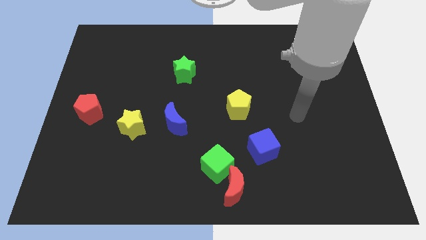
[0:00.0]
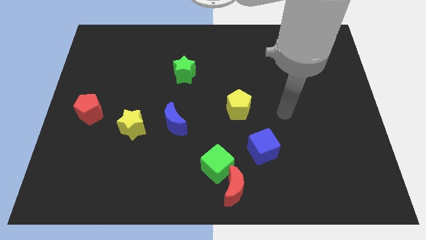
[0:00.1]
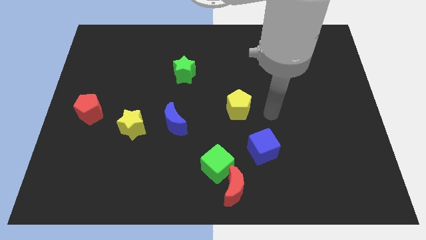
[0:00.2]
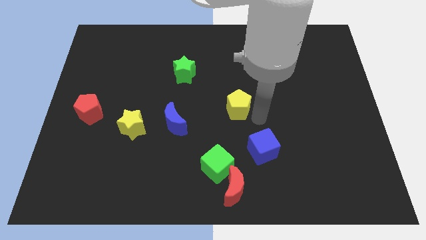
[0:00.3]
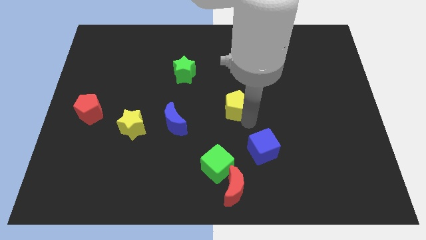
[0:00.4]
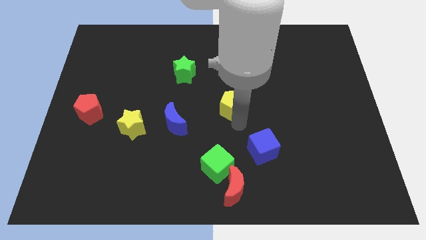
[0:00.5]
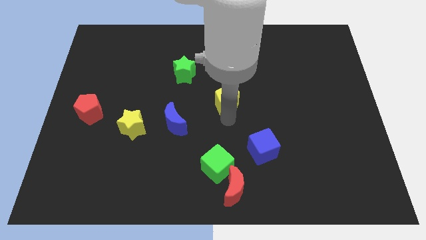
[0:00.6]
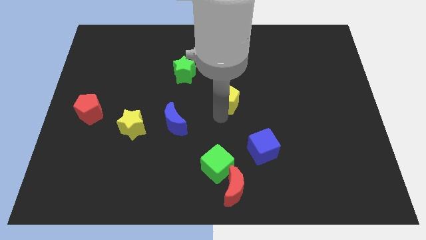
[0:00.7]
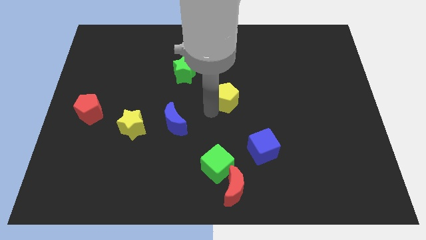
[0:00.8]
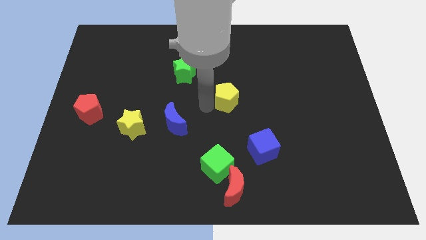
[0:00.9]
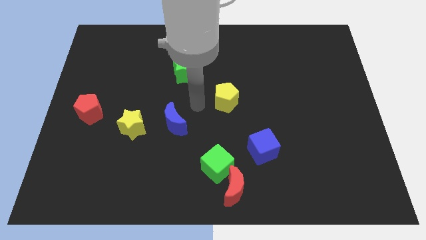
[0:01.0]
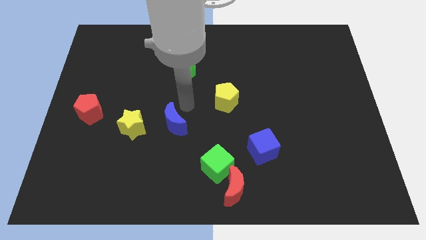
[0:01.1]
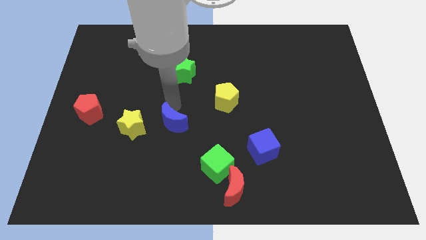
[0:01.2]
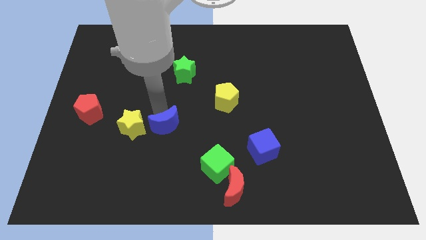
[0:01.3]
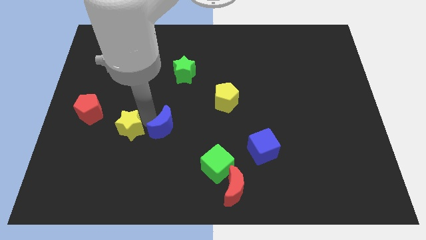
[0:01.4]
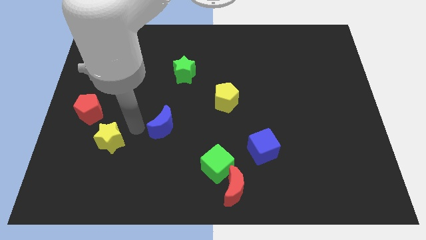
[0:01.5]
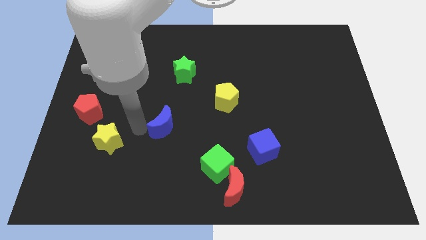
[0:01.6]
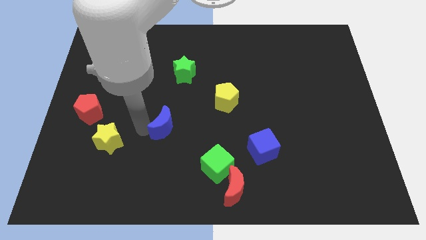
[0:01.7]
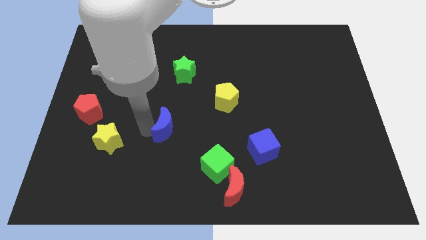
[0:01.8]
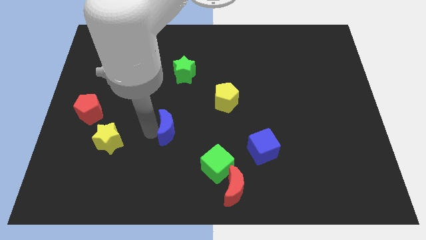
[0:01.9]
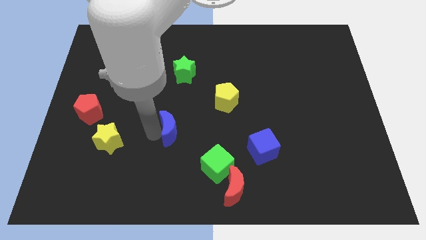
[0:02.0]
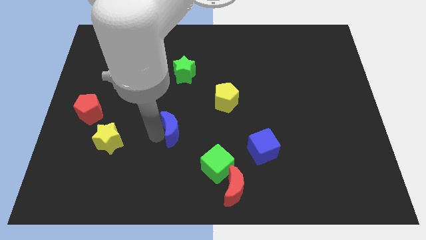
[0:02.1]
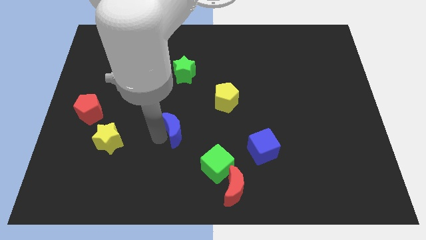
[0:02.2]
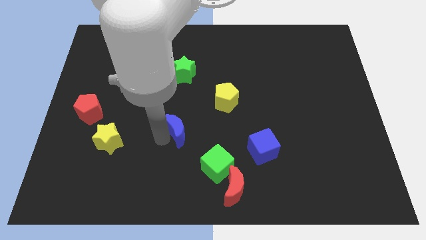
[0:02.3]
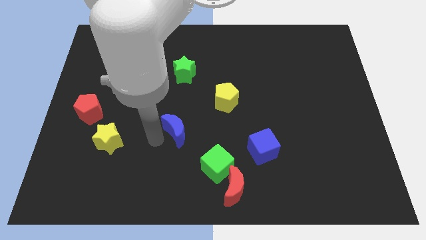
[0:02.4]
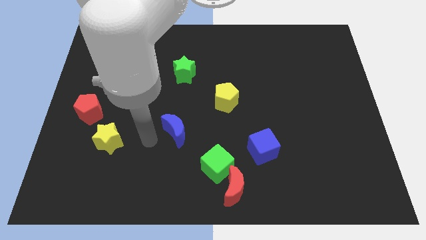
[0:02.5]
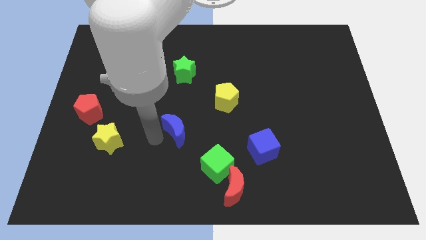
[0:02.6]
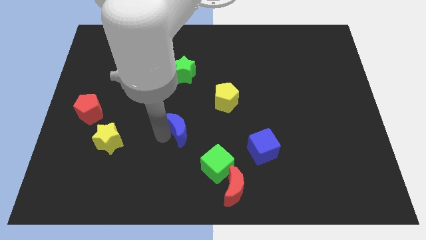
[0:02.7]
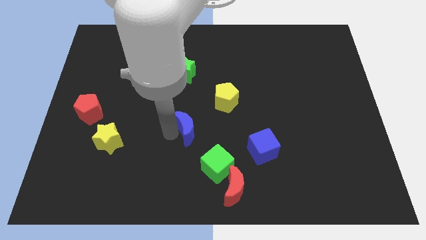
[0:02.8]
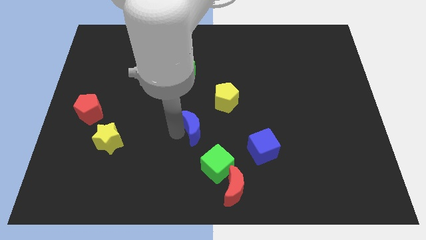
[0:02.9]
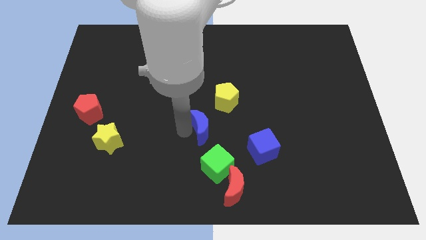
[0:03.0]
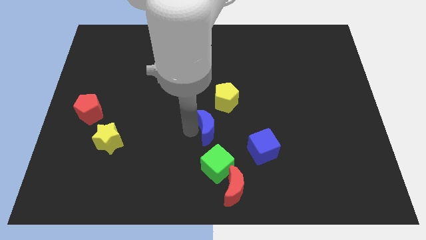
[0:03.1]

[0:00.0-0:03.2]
push the blue moon right a little

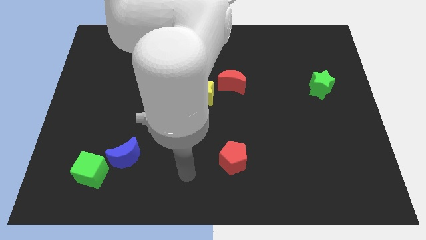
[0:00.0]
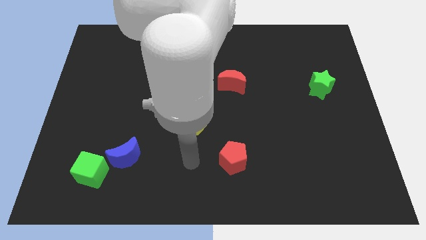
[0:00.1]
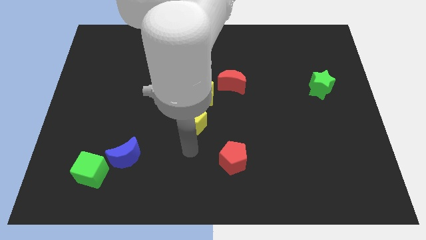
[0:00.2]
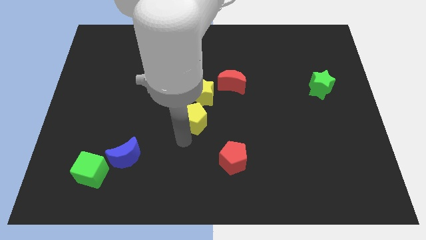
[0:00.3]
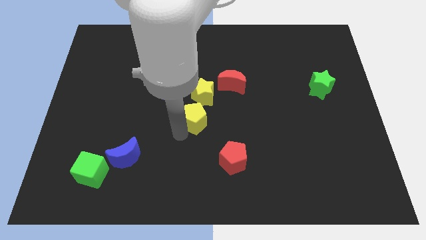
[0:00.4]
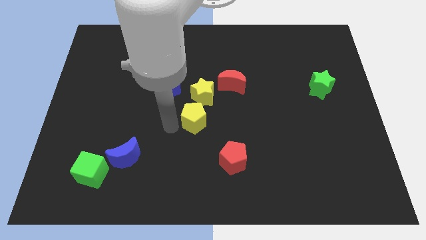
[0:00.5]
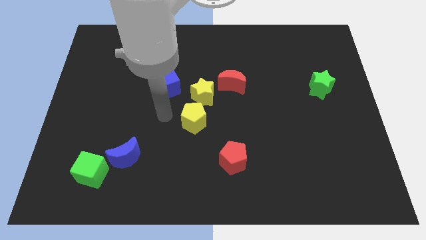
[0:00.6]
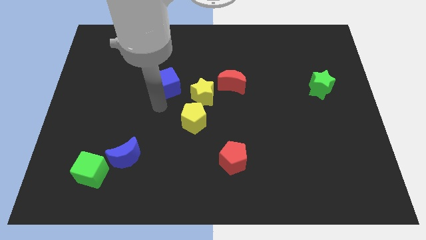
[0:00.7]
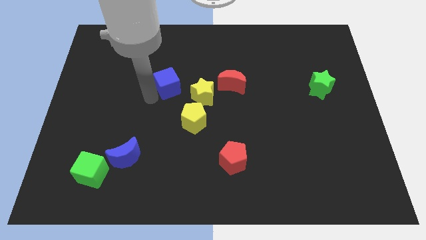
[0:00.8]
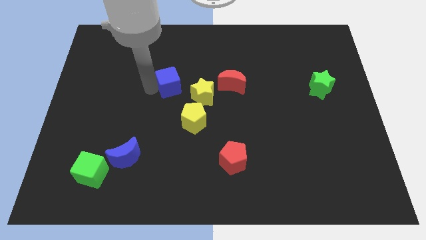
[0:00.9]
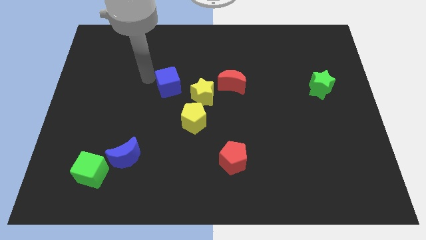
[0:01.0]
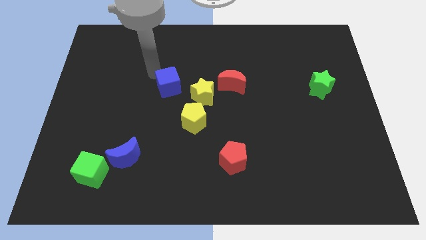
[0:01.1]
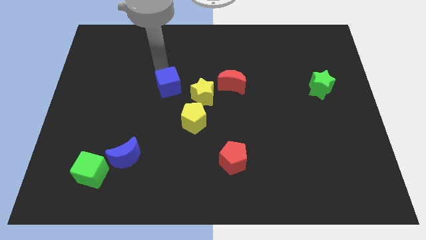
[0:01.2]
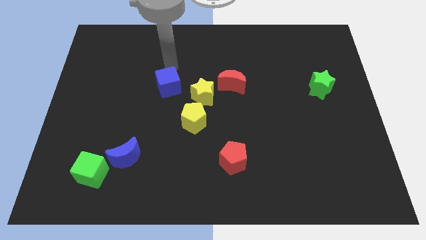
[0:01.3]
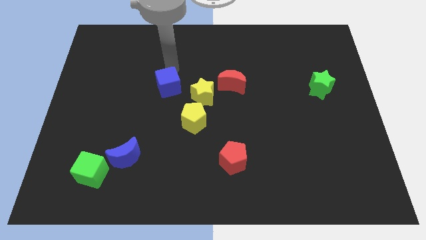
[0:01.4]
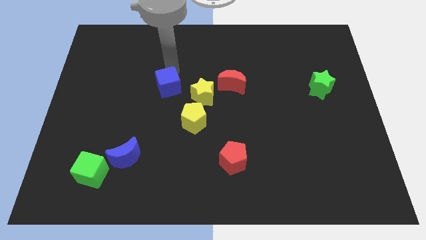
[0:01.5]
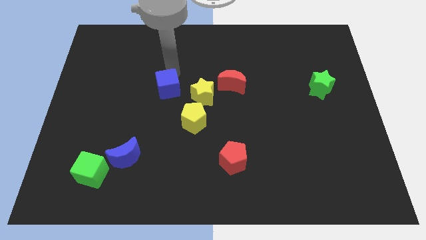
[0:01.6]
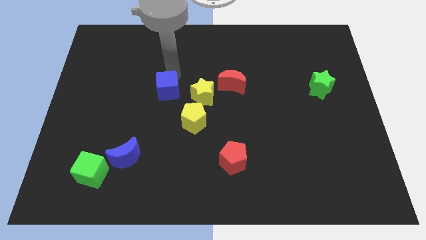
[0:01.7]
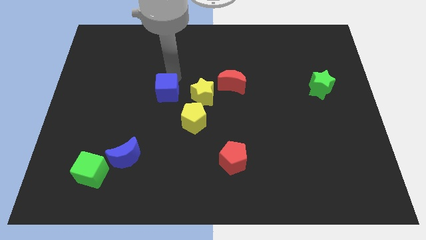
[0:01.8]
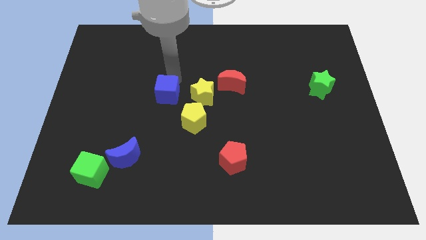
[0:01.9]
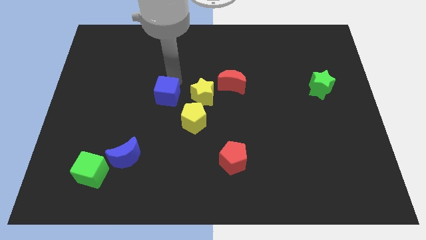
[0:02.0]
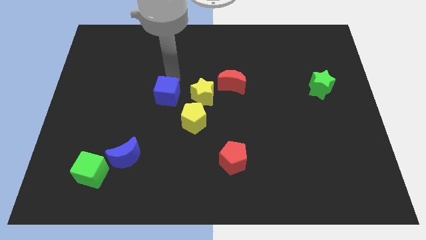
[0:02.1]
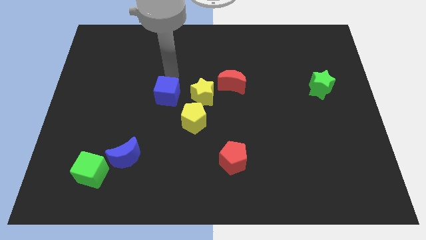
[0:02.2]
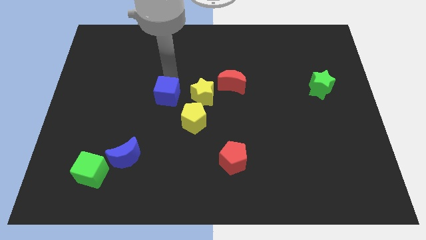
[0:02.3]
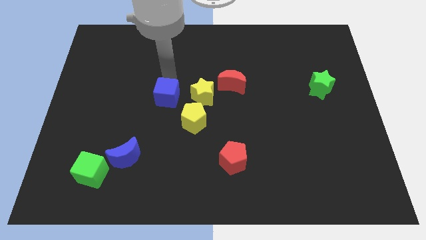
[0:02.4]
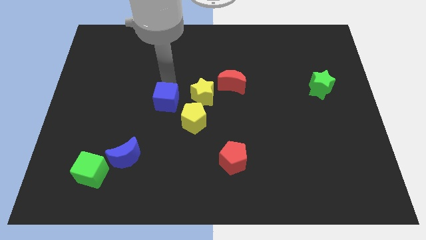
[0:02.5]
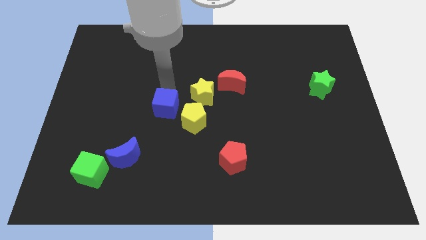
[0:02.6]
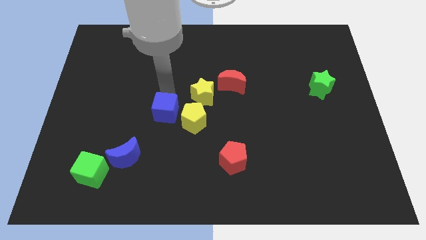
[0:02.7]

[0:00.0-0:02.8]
move the blue cube down a little bit

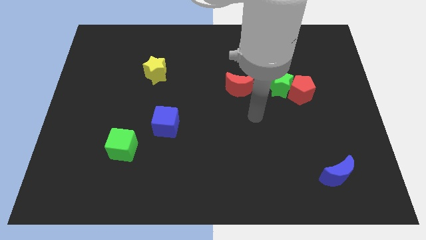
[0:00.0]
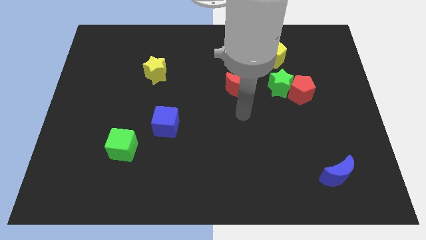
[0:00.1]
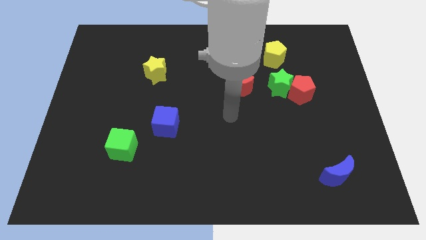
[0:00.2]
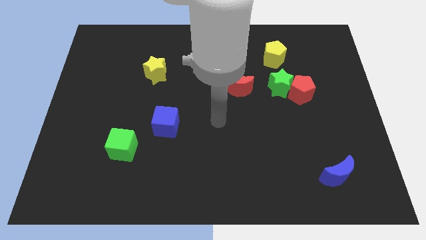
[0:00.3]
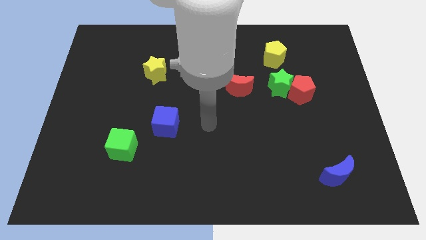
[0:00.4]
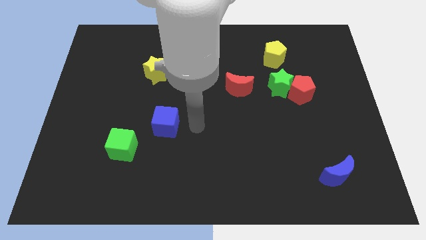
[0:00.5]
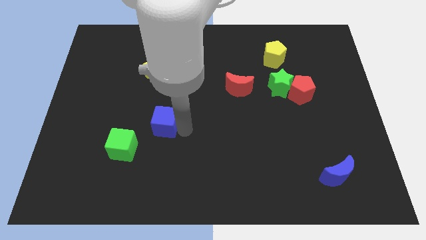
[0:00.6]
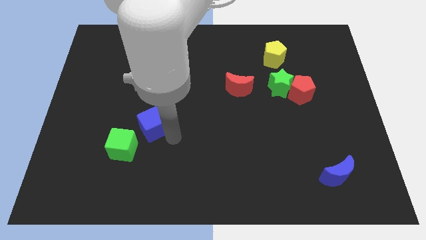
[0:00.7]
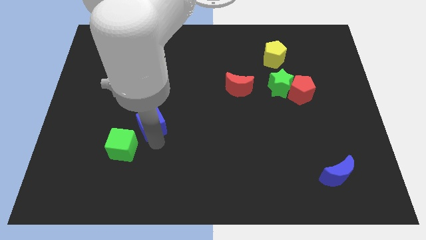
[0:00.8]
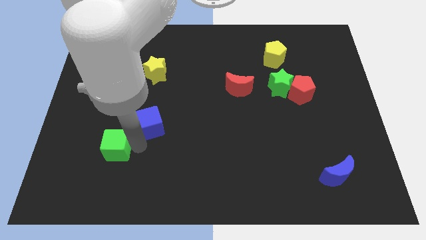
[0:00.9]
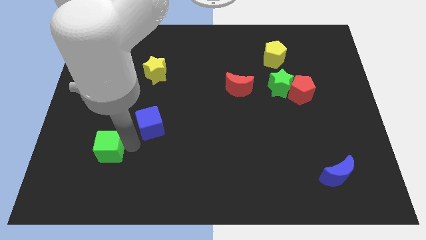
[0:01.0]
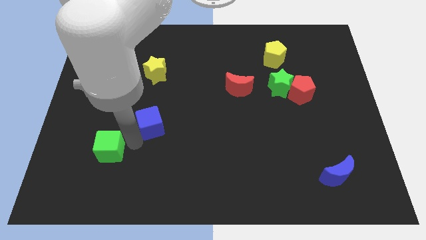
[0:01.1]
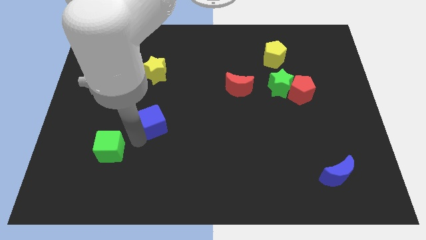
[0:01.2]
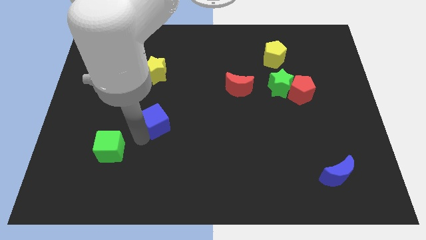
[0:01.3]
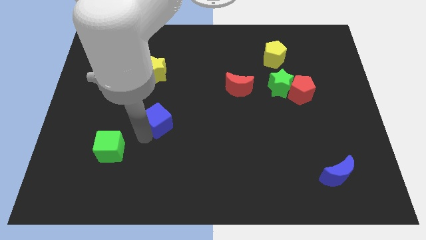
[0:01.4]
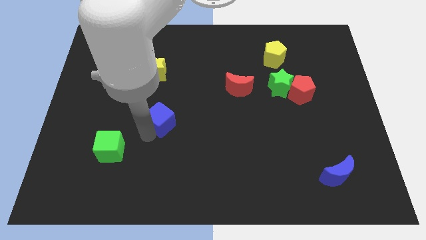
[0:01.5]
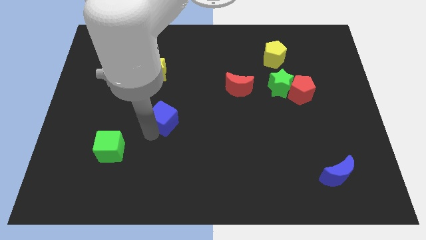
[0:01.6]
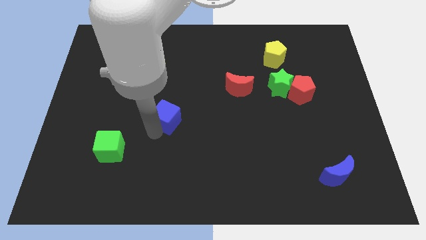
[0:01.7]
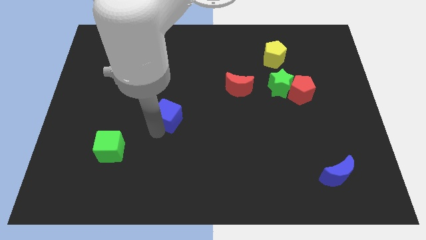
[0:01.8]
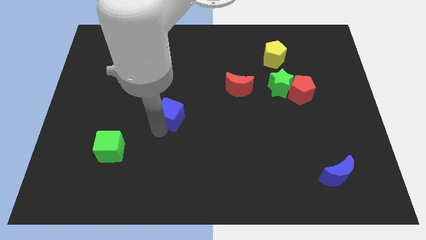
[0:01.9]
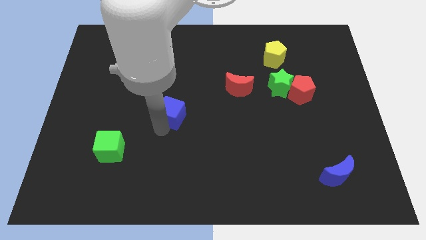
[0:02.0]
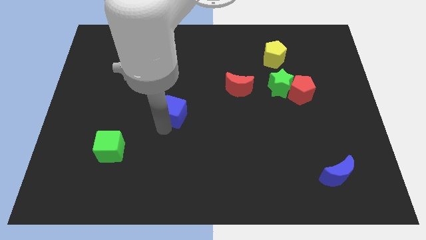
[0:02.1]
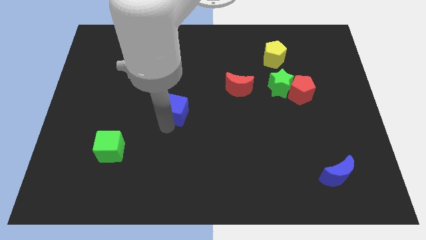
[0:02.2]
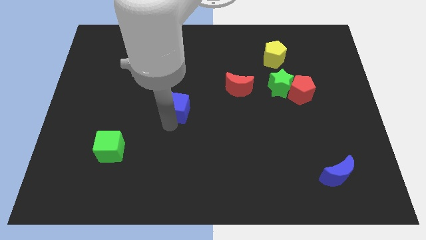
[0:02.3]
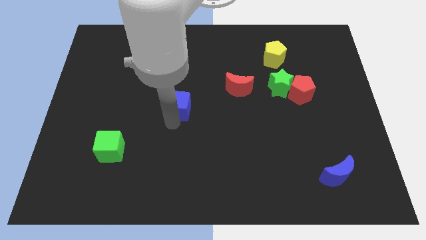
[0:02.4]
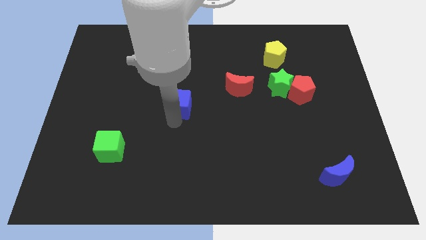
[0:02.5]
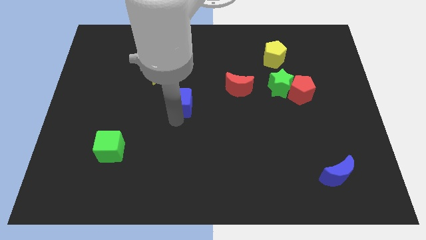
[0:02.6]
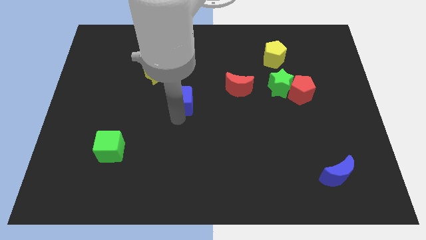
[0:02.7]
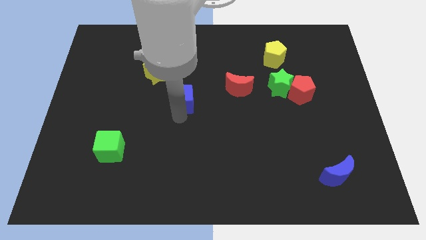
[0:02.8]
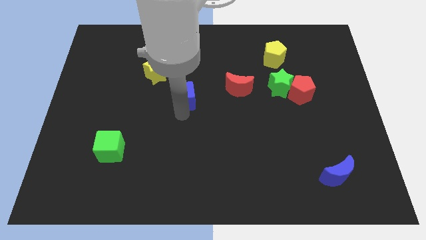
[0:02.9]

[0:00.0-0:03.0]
push the blue cube a little upwards
